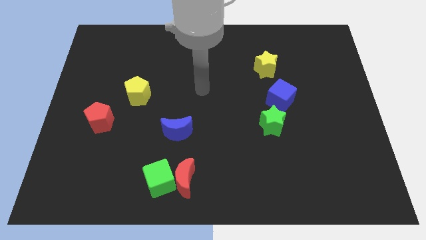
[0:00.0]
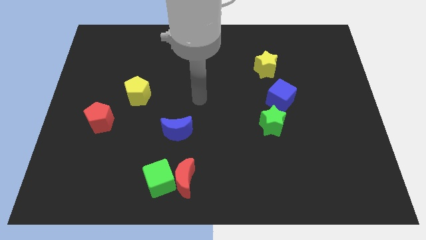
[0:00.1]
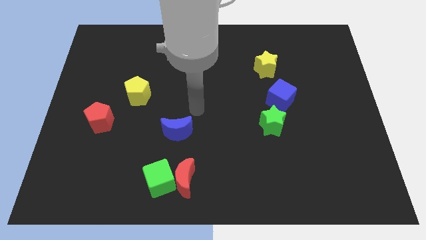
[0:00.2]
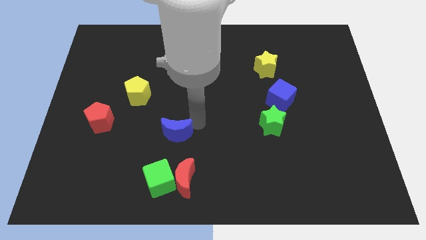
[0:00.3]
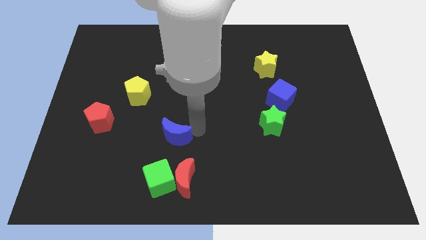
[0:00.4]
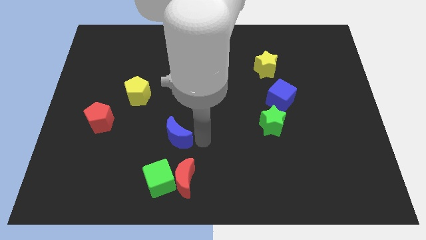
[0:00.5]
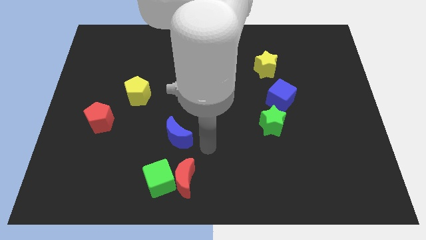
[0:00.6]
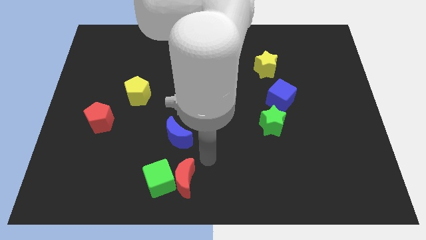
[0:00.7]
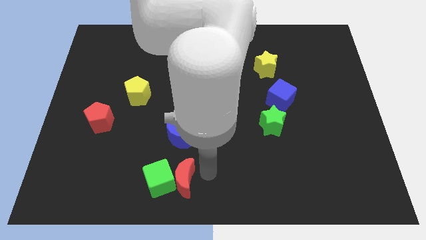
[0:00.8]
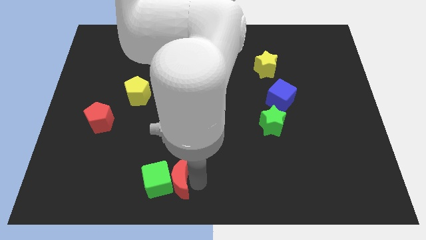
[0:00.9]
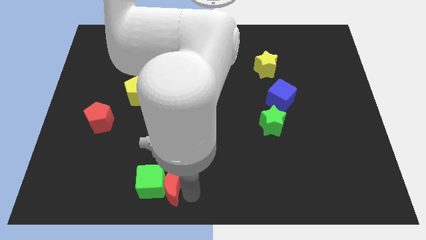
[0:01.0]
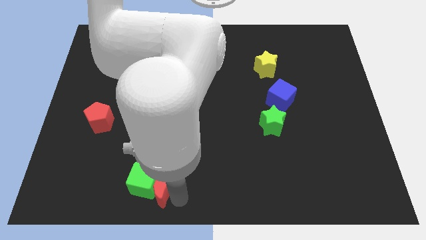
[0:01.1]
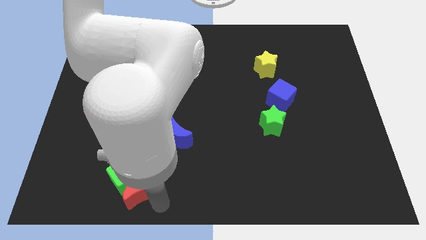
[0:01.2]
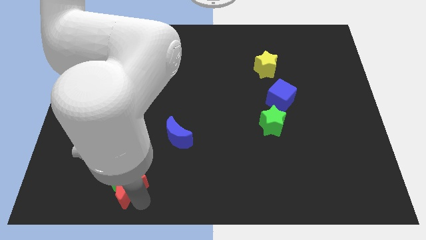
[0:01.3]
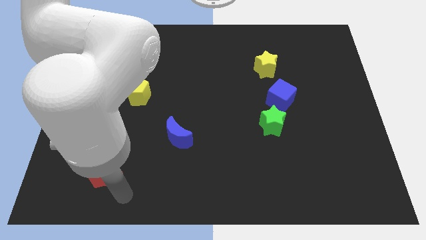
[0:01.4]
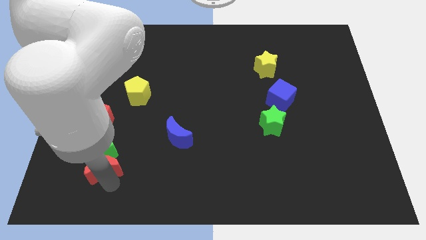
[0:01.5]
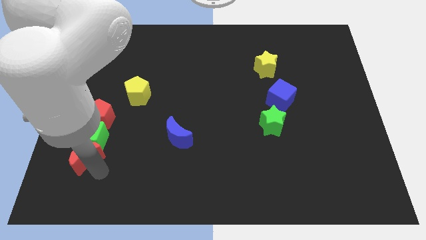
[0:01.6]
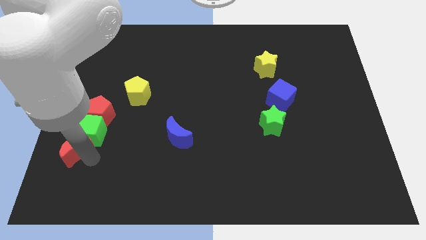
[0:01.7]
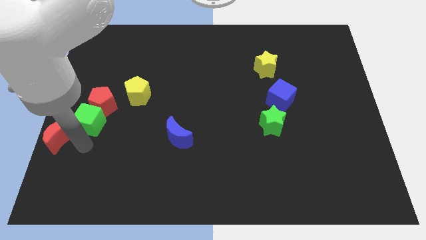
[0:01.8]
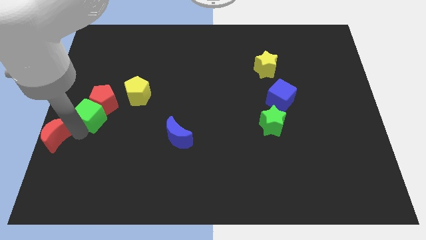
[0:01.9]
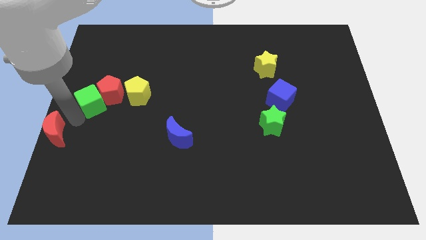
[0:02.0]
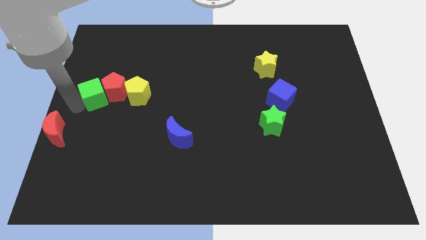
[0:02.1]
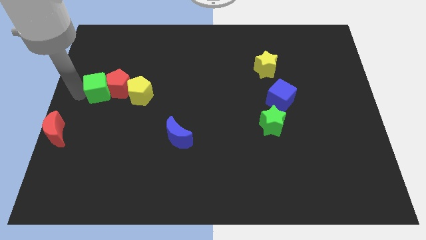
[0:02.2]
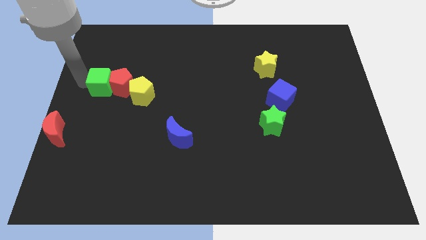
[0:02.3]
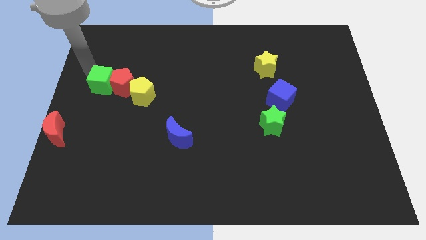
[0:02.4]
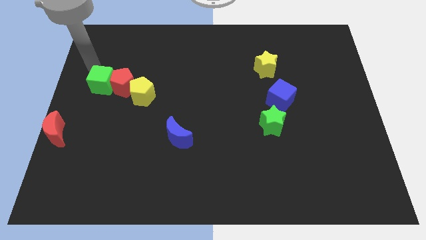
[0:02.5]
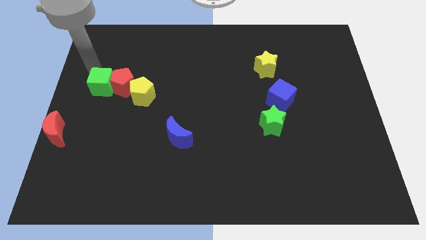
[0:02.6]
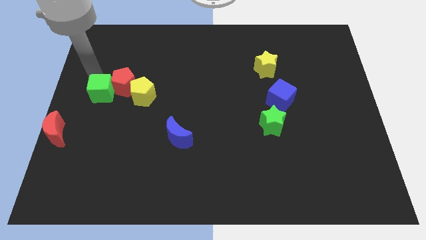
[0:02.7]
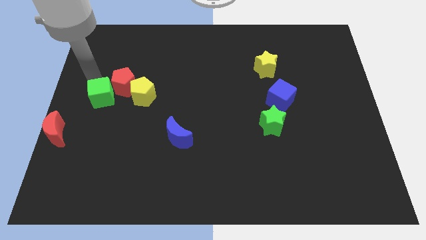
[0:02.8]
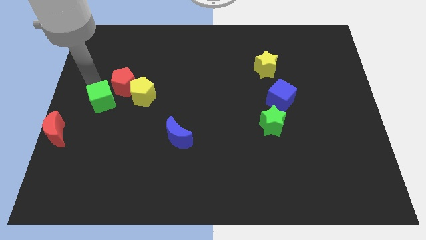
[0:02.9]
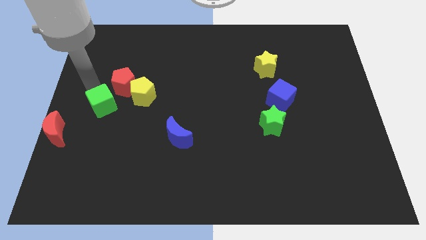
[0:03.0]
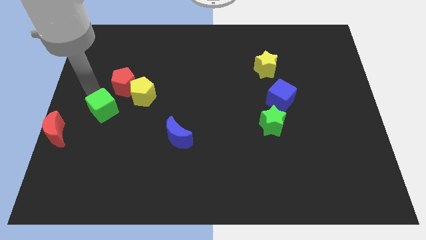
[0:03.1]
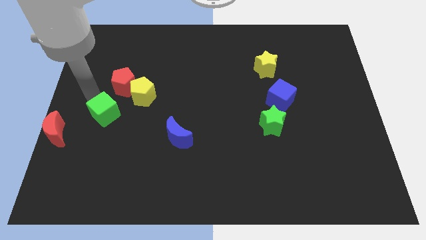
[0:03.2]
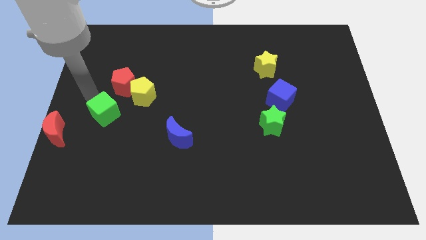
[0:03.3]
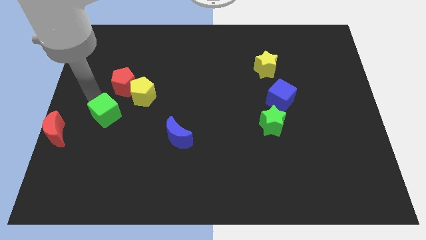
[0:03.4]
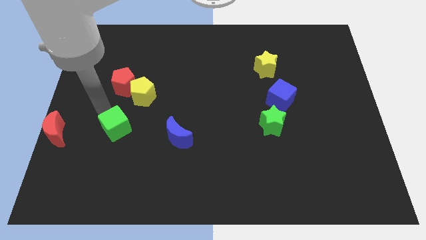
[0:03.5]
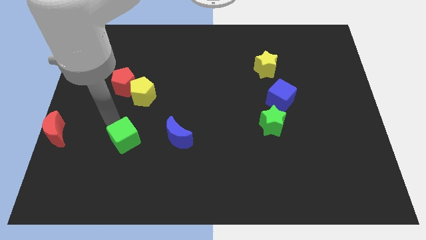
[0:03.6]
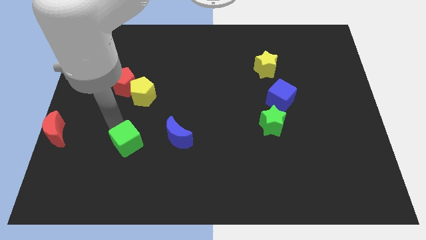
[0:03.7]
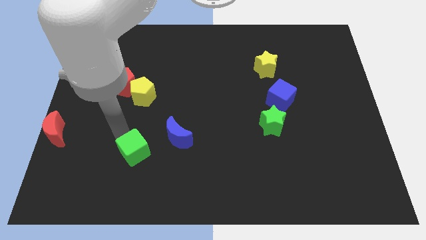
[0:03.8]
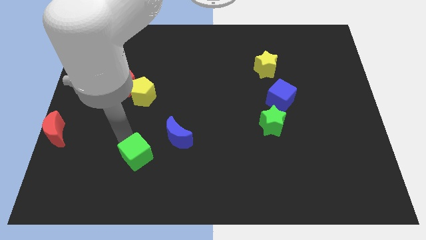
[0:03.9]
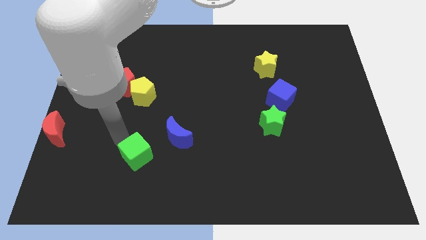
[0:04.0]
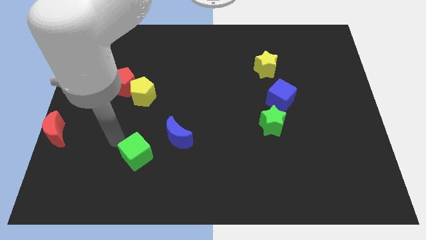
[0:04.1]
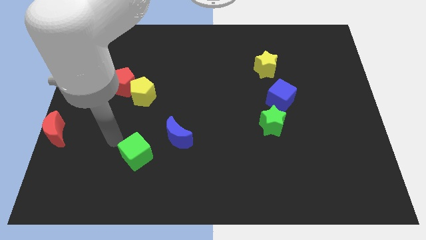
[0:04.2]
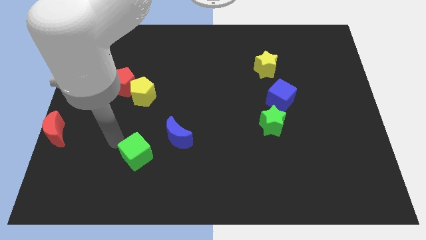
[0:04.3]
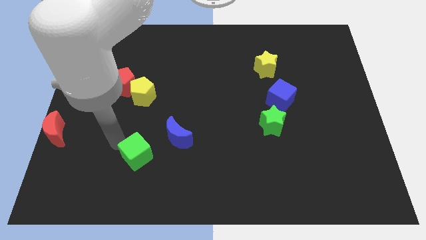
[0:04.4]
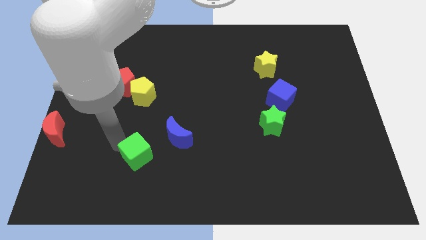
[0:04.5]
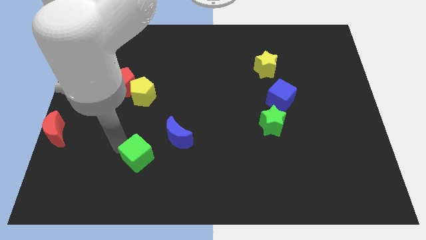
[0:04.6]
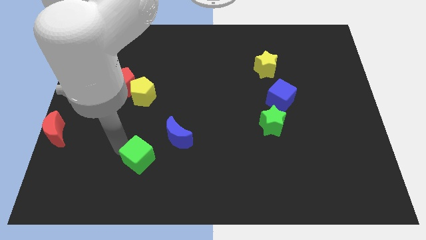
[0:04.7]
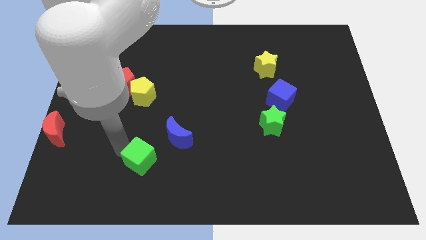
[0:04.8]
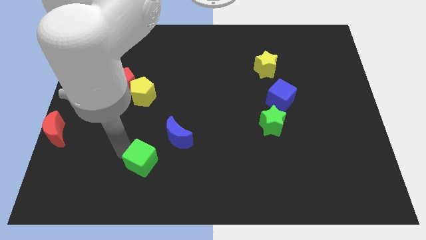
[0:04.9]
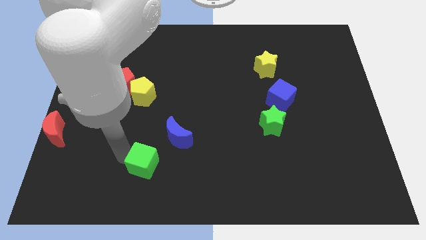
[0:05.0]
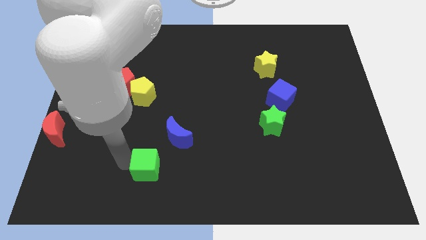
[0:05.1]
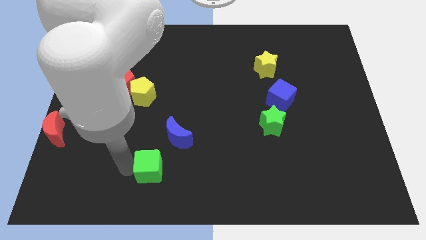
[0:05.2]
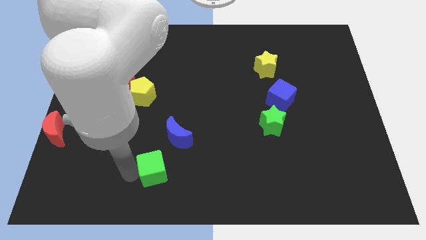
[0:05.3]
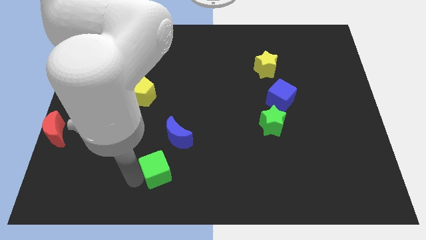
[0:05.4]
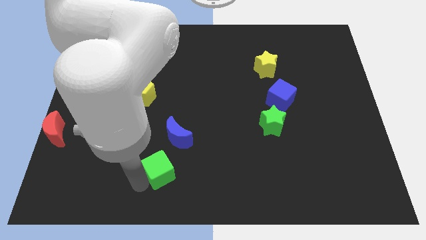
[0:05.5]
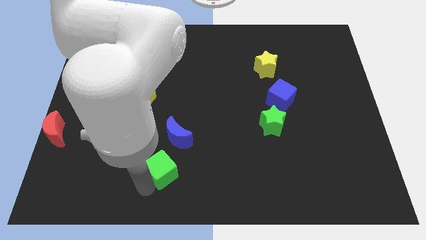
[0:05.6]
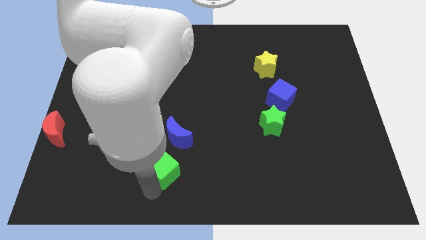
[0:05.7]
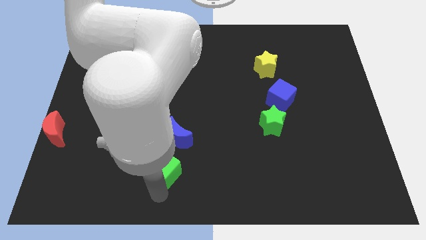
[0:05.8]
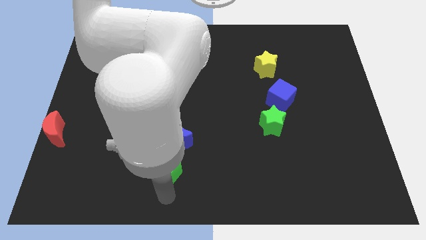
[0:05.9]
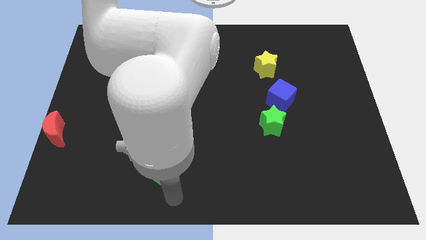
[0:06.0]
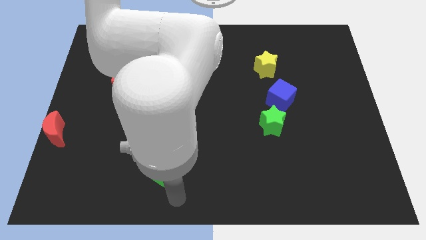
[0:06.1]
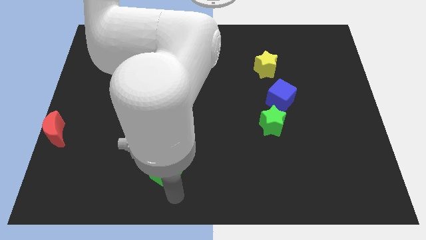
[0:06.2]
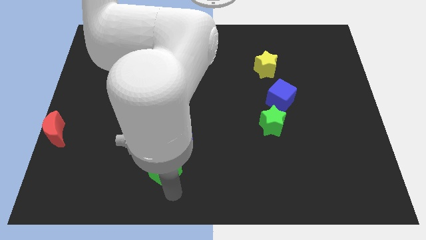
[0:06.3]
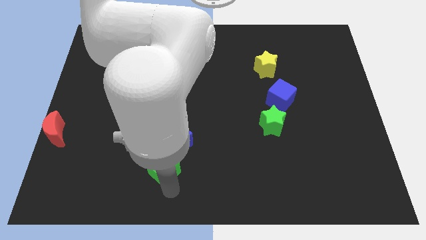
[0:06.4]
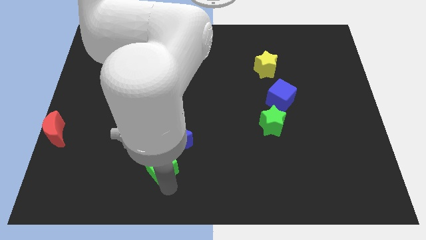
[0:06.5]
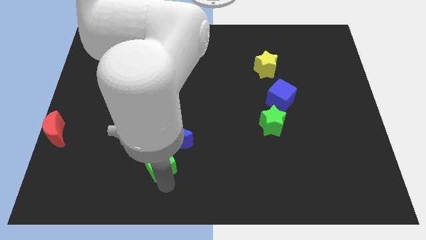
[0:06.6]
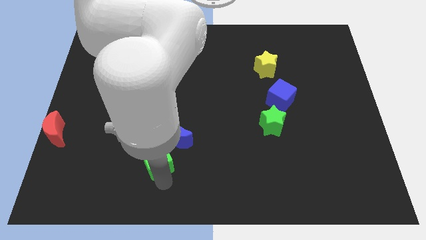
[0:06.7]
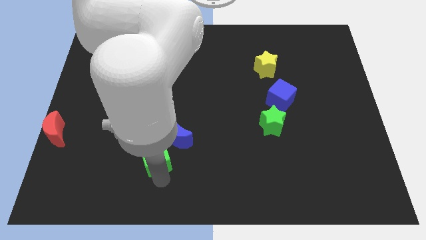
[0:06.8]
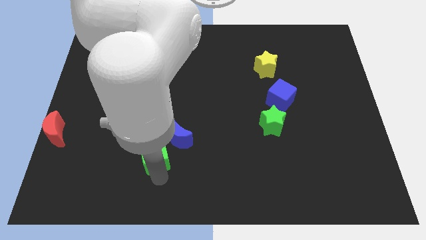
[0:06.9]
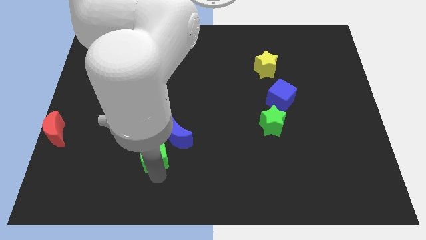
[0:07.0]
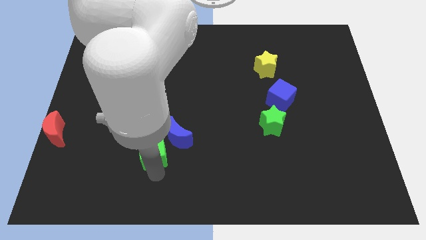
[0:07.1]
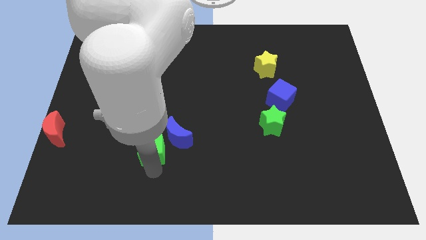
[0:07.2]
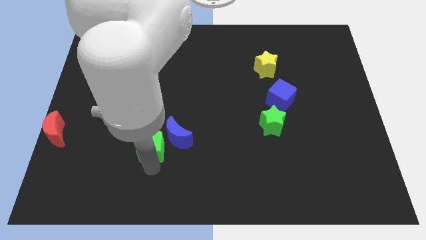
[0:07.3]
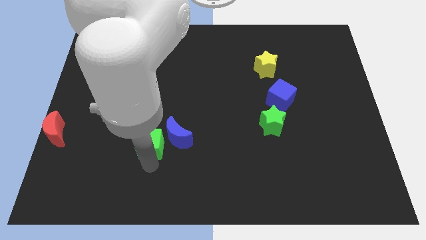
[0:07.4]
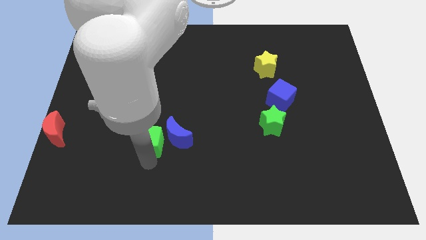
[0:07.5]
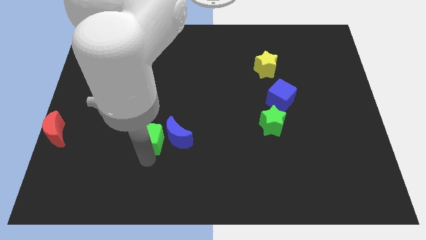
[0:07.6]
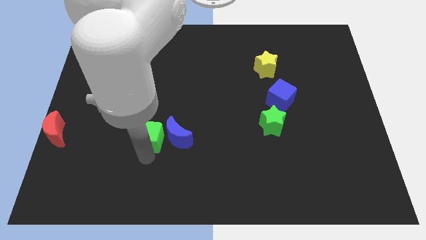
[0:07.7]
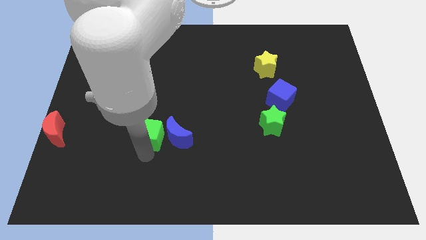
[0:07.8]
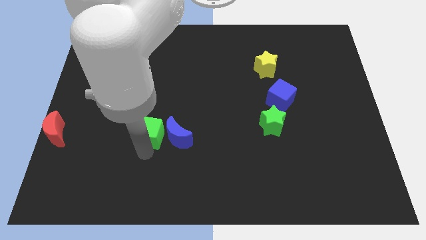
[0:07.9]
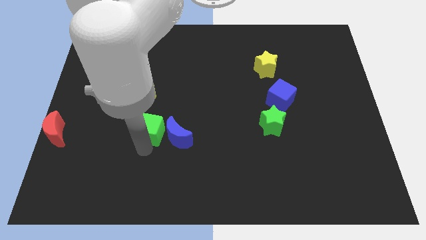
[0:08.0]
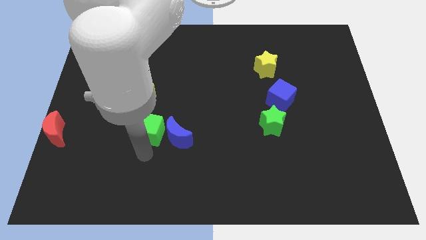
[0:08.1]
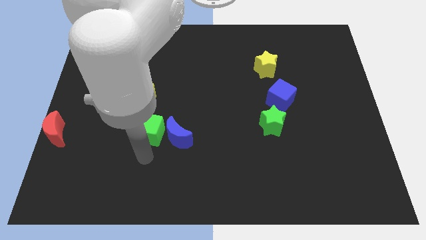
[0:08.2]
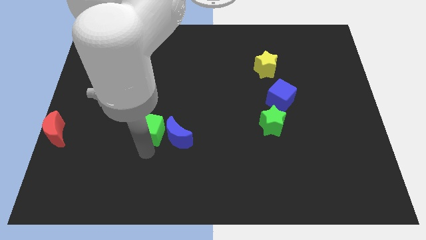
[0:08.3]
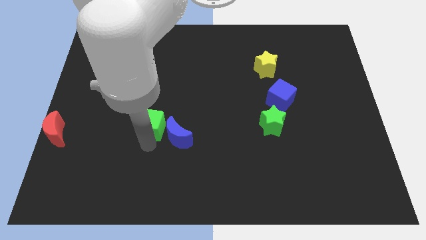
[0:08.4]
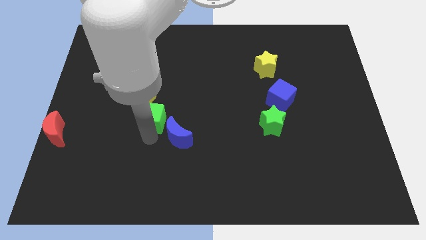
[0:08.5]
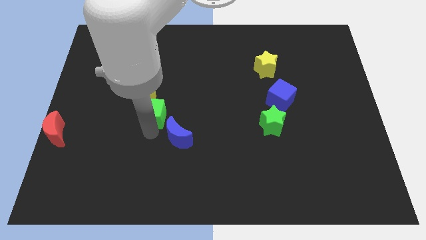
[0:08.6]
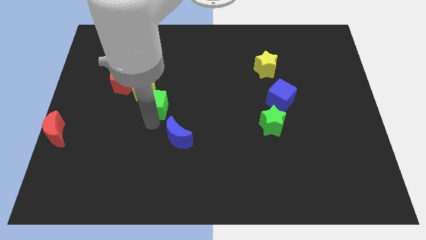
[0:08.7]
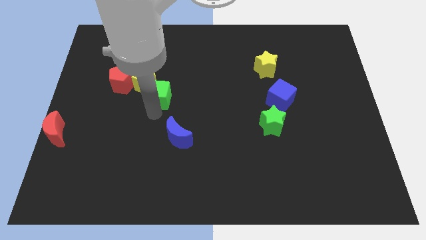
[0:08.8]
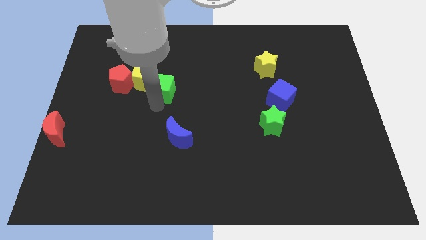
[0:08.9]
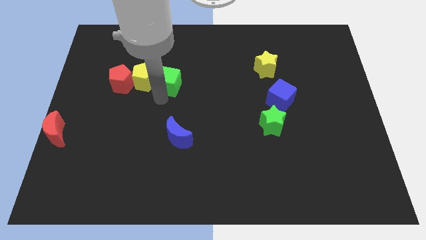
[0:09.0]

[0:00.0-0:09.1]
put the green cube to the top right of the yellow pentagon
